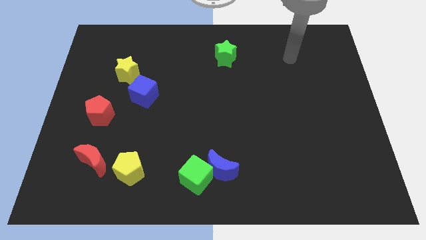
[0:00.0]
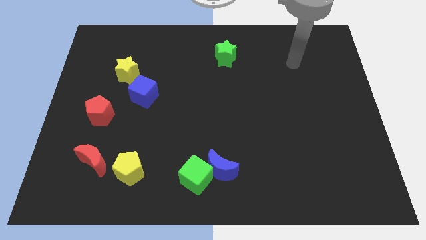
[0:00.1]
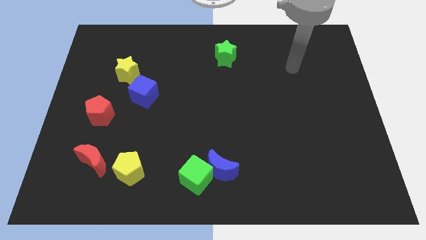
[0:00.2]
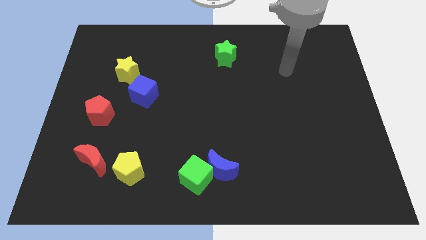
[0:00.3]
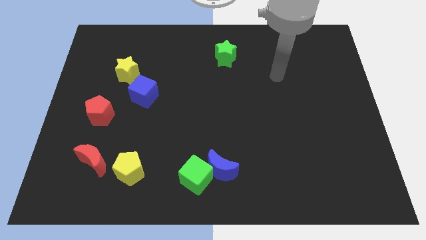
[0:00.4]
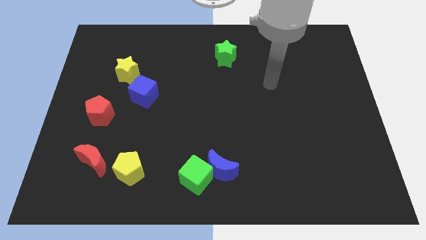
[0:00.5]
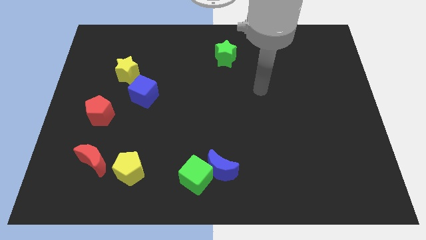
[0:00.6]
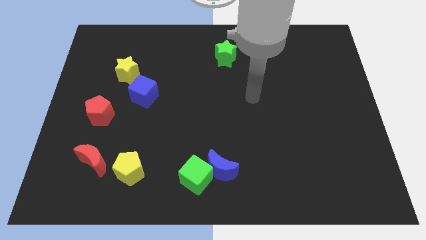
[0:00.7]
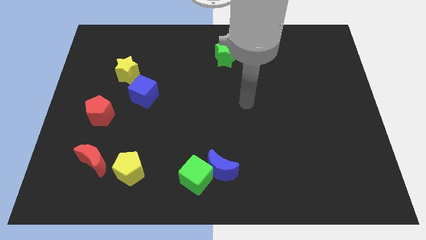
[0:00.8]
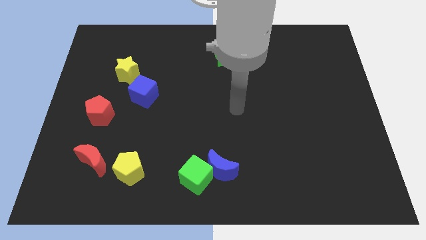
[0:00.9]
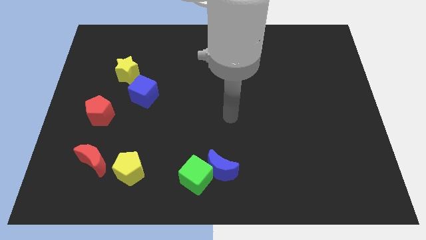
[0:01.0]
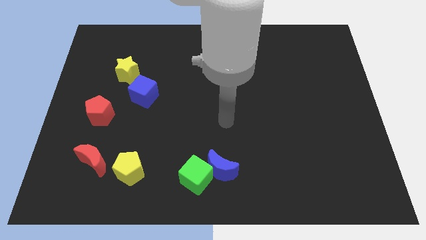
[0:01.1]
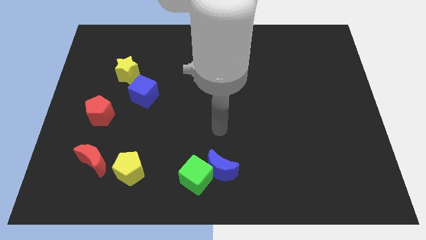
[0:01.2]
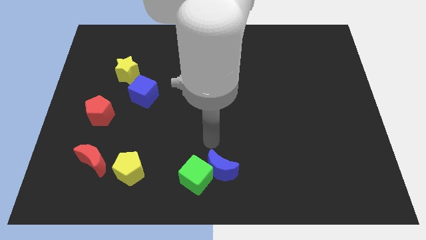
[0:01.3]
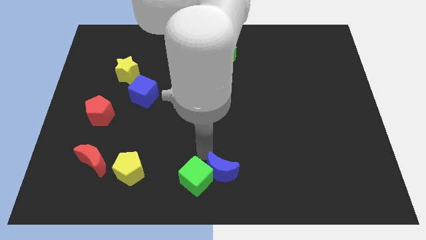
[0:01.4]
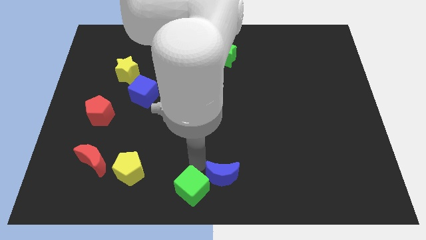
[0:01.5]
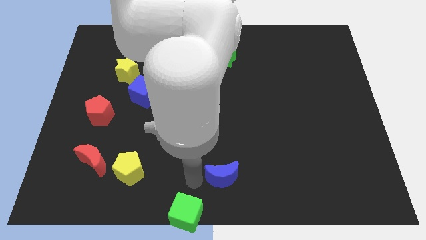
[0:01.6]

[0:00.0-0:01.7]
separate the blue moon from the green cube

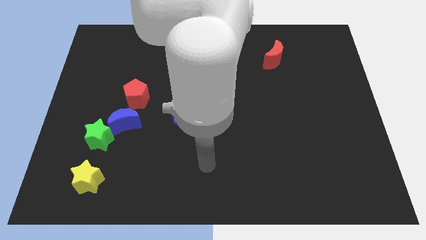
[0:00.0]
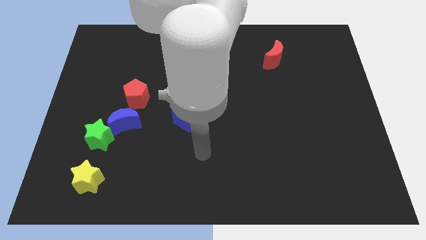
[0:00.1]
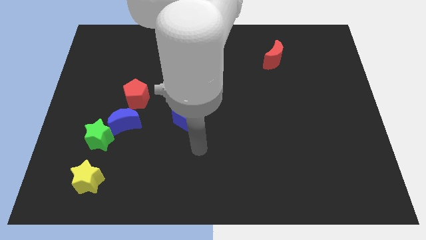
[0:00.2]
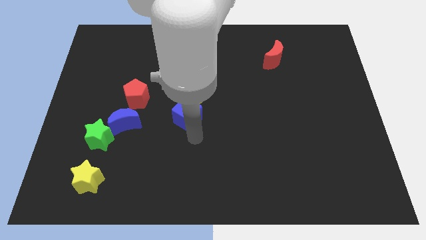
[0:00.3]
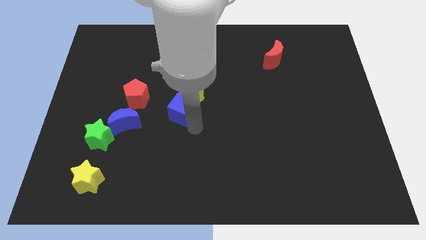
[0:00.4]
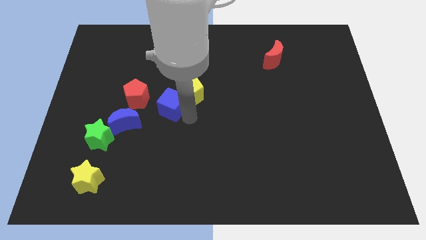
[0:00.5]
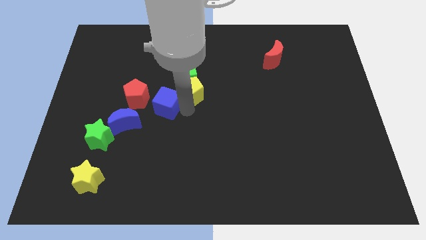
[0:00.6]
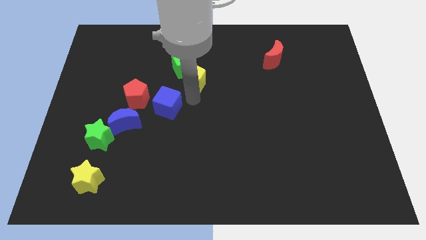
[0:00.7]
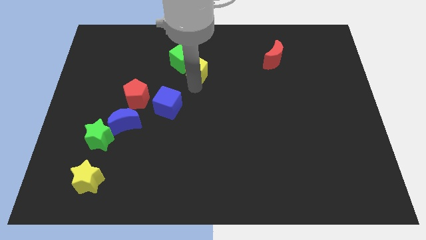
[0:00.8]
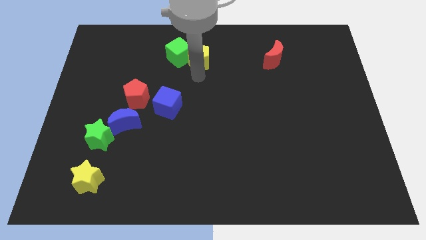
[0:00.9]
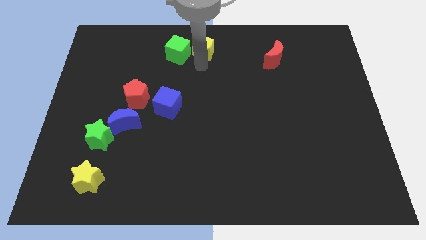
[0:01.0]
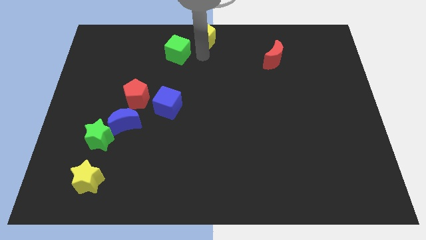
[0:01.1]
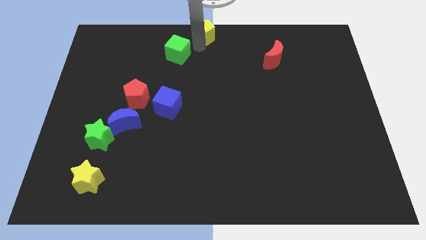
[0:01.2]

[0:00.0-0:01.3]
separate the green cube from the yellow pentagon

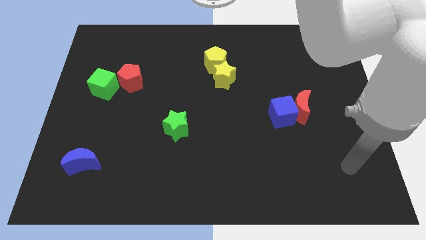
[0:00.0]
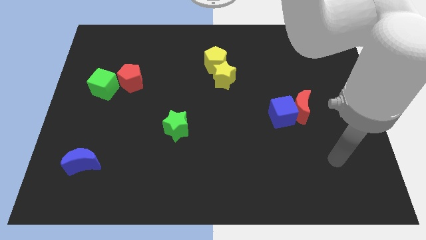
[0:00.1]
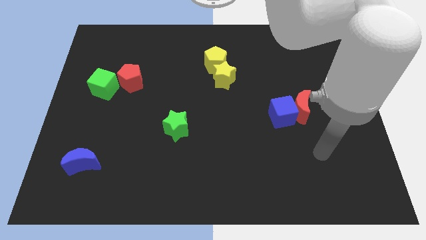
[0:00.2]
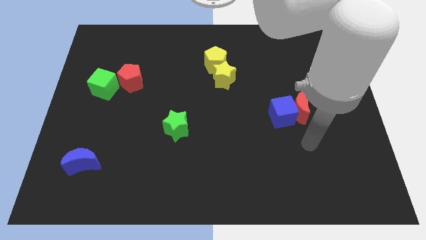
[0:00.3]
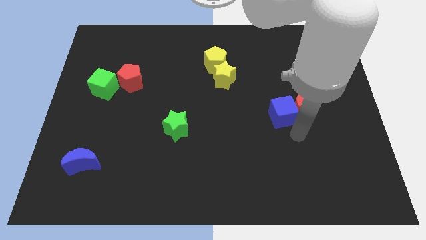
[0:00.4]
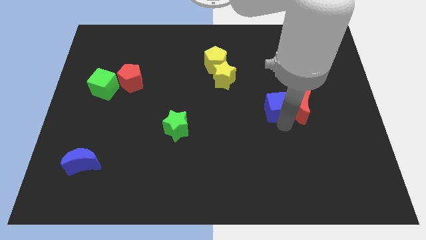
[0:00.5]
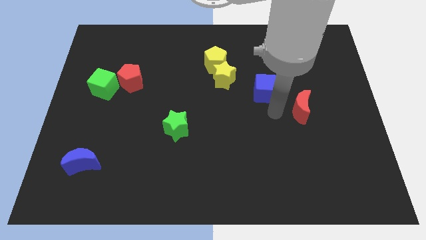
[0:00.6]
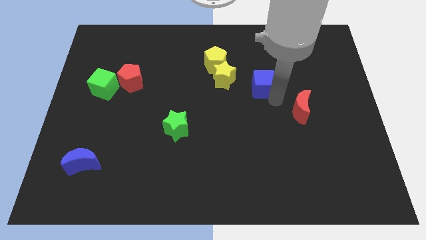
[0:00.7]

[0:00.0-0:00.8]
move the red moon away from the blue cube

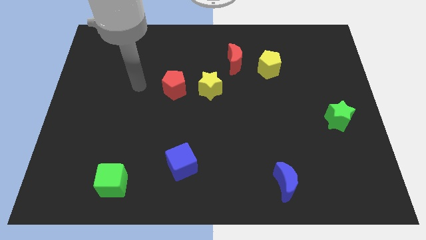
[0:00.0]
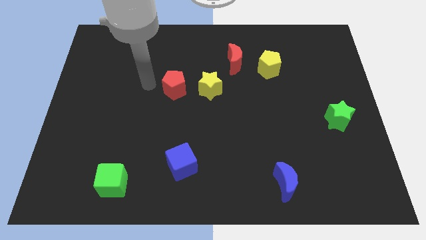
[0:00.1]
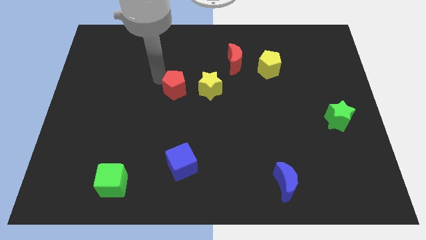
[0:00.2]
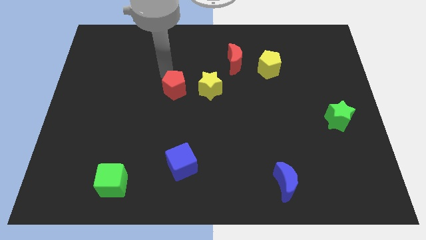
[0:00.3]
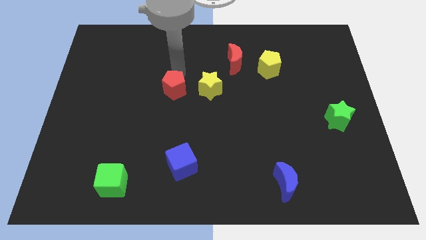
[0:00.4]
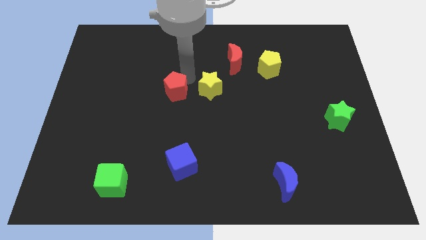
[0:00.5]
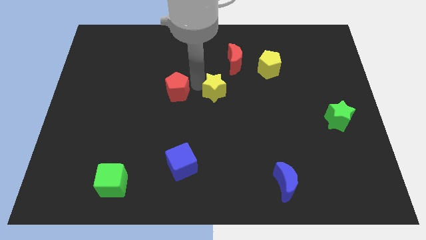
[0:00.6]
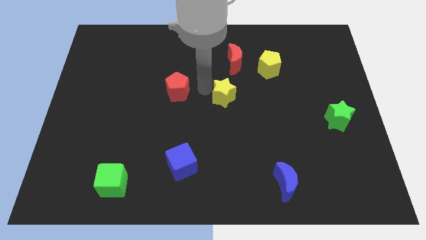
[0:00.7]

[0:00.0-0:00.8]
pull the red pentagon apart from the yellow star

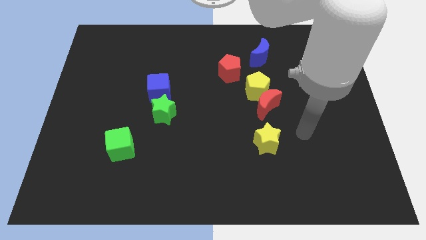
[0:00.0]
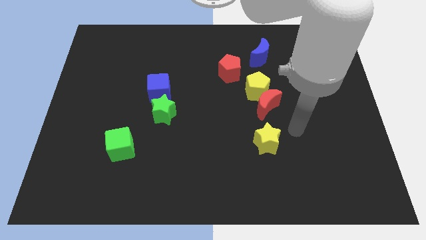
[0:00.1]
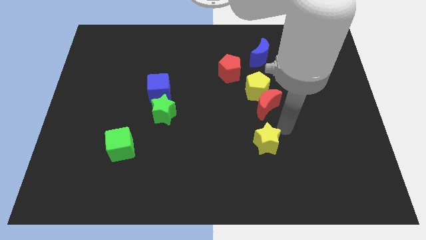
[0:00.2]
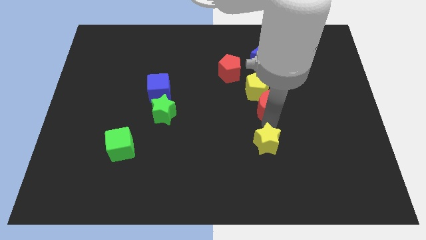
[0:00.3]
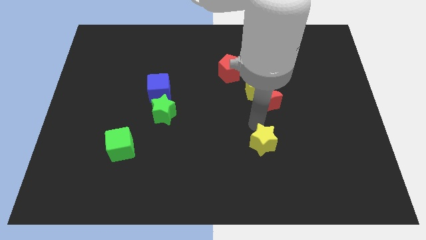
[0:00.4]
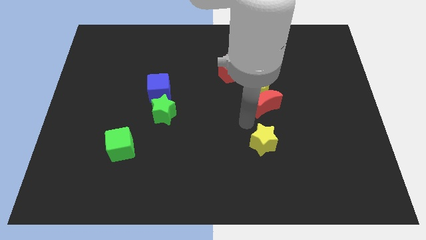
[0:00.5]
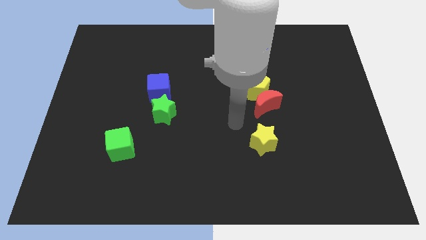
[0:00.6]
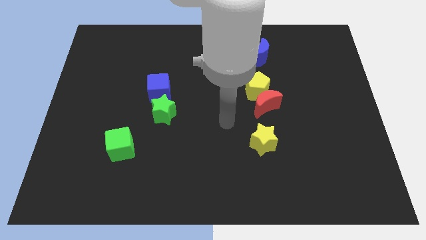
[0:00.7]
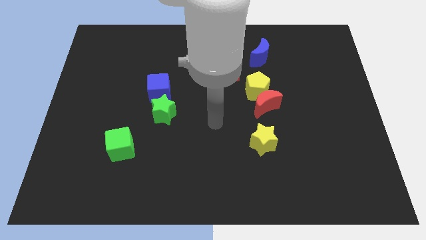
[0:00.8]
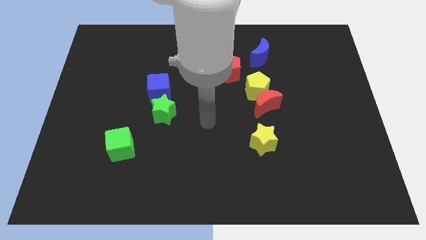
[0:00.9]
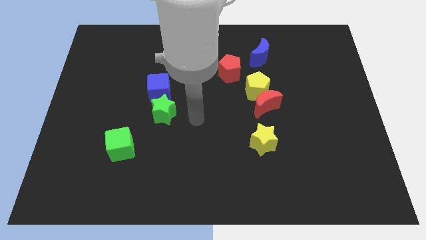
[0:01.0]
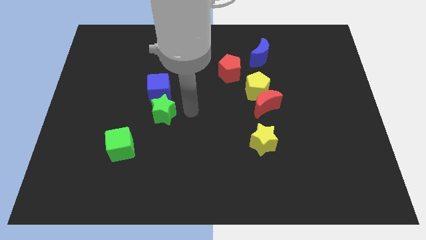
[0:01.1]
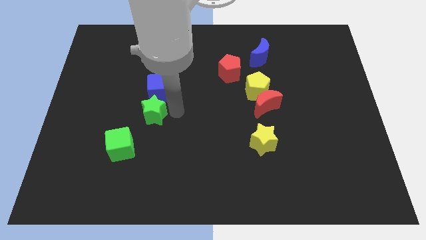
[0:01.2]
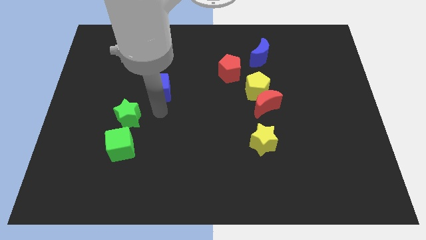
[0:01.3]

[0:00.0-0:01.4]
pull the blue cube apart from the green star

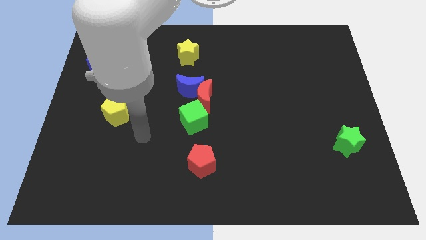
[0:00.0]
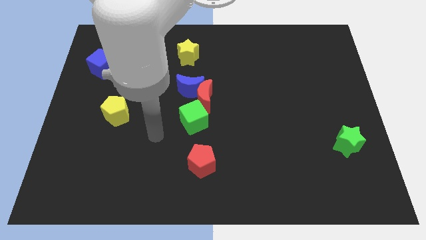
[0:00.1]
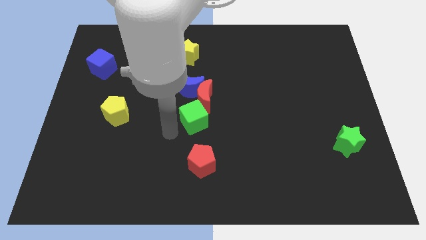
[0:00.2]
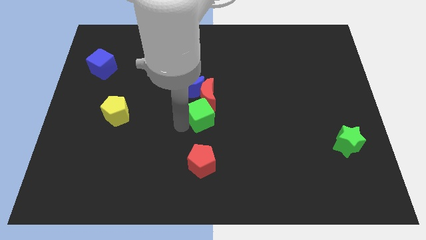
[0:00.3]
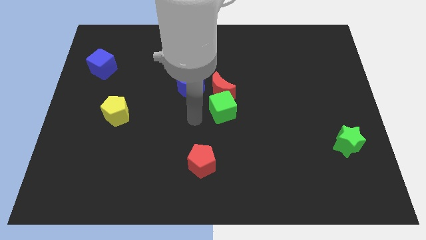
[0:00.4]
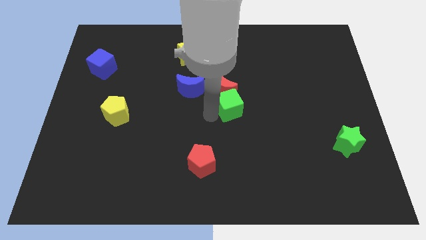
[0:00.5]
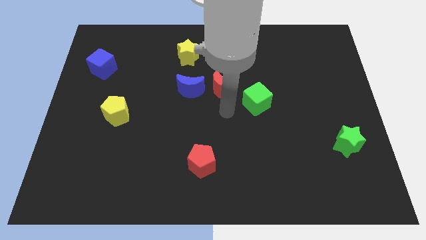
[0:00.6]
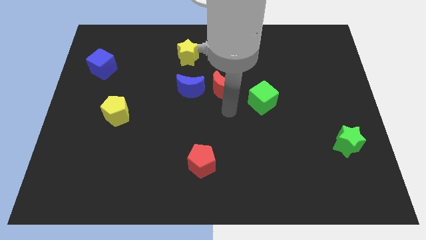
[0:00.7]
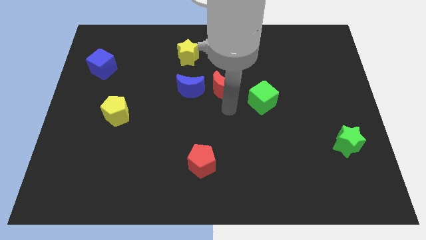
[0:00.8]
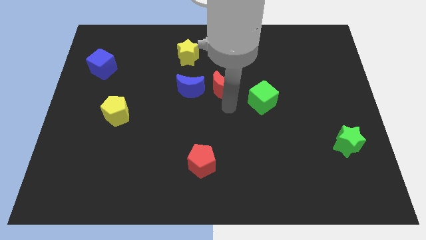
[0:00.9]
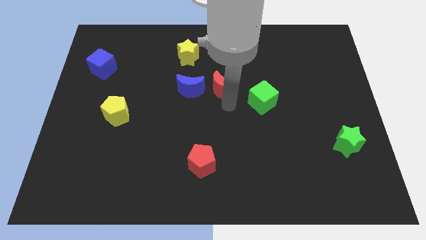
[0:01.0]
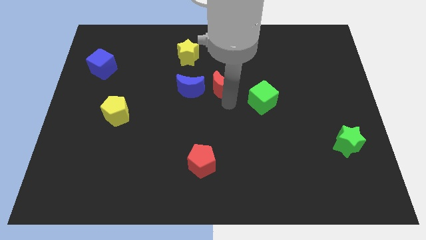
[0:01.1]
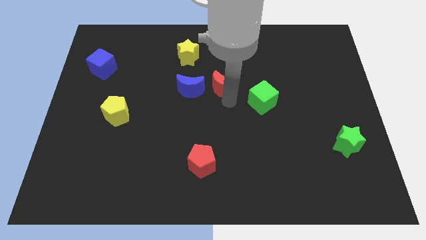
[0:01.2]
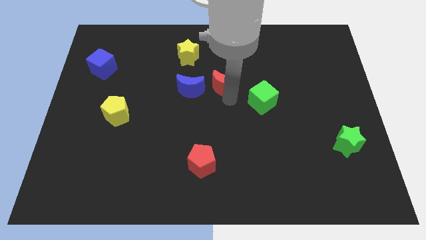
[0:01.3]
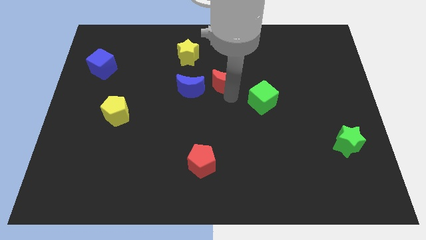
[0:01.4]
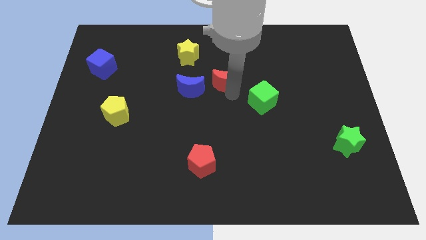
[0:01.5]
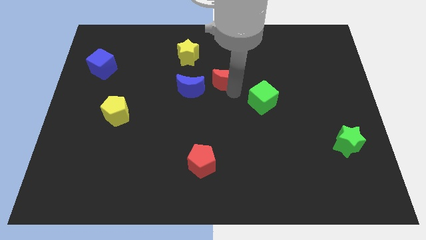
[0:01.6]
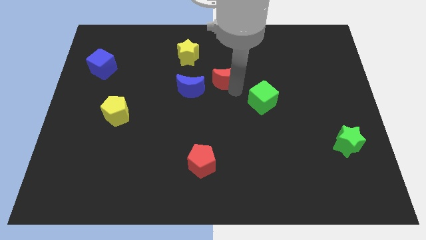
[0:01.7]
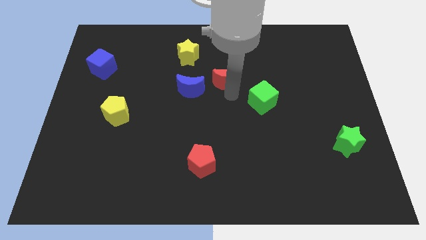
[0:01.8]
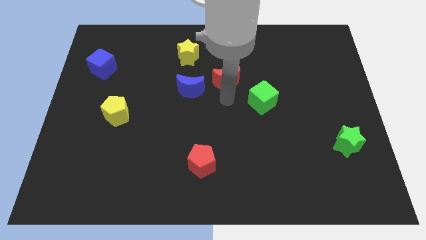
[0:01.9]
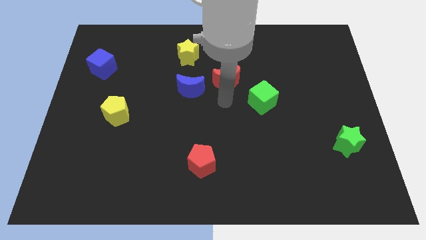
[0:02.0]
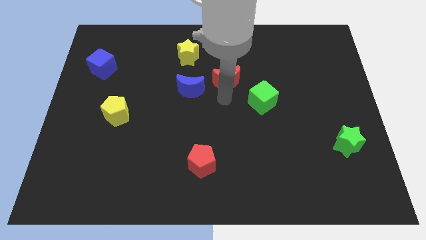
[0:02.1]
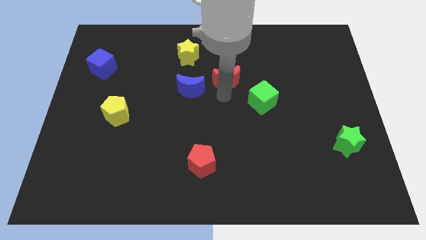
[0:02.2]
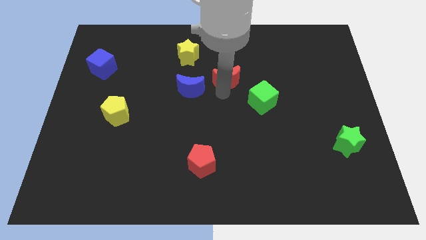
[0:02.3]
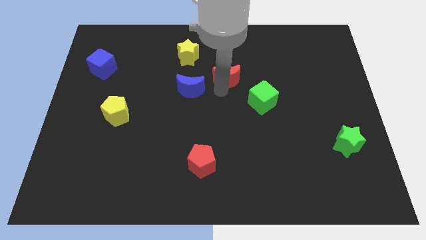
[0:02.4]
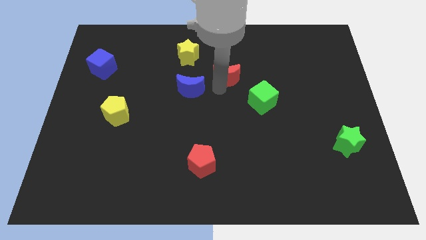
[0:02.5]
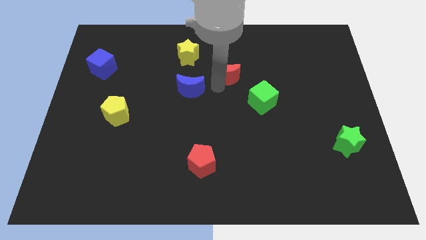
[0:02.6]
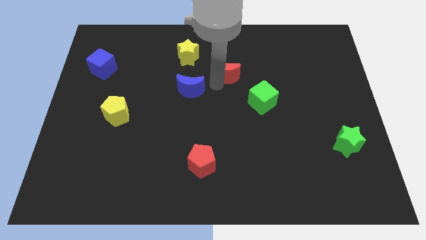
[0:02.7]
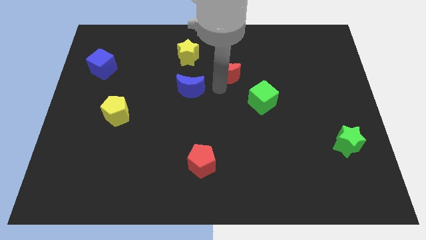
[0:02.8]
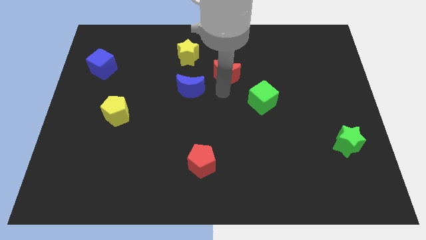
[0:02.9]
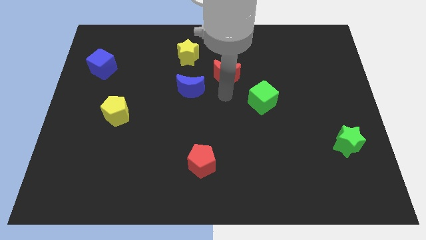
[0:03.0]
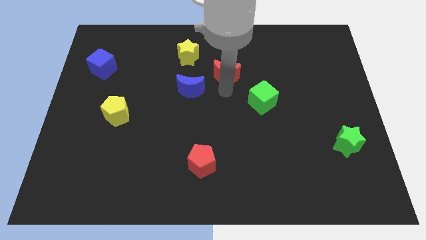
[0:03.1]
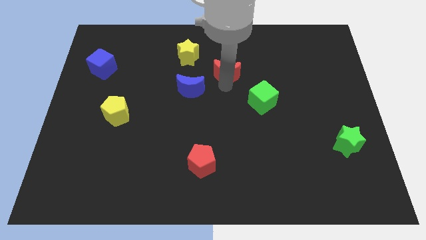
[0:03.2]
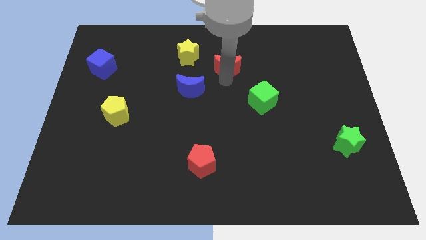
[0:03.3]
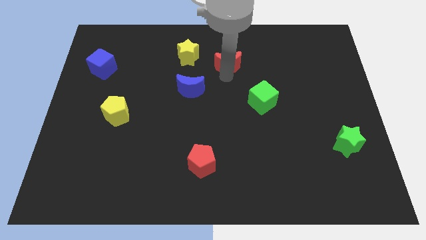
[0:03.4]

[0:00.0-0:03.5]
move the red moon away from the blue moon and green cube
